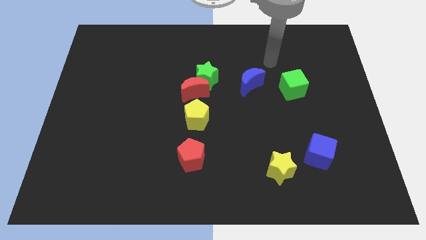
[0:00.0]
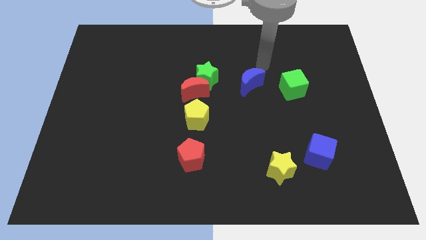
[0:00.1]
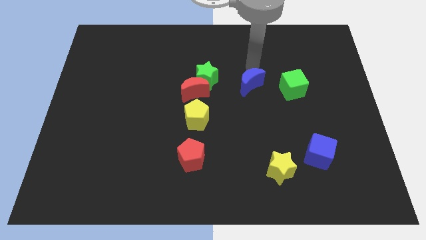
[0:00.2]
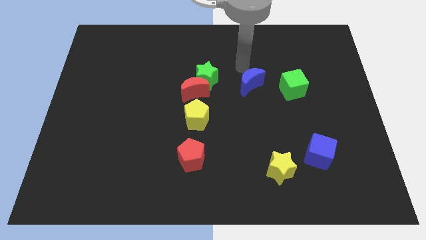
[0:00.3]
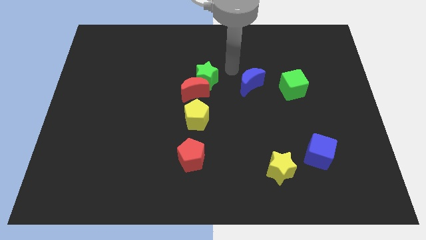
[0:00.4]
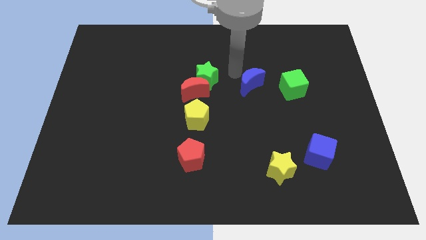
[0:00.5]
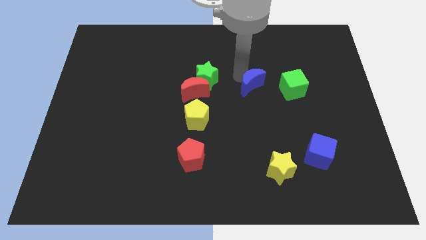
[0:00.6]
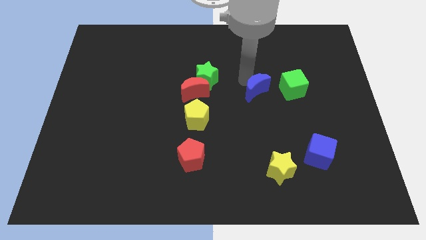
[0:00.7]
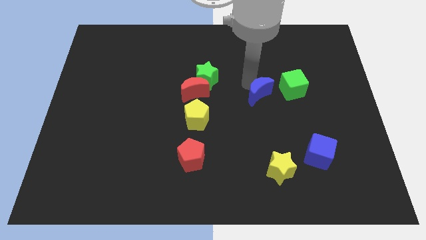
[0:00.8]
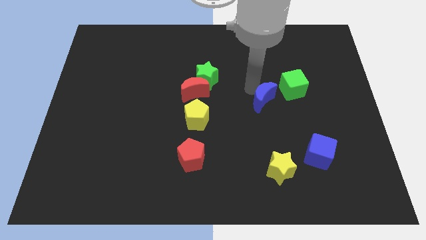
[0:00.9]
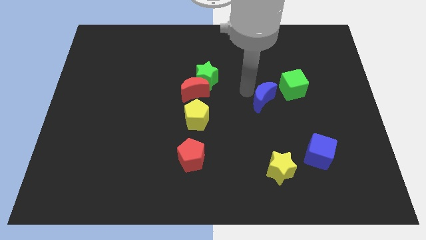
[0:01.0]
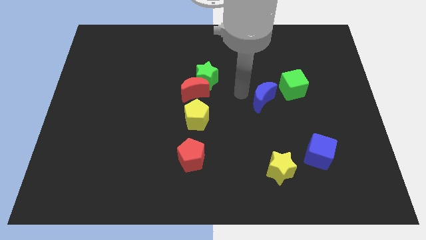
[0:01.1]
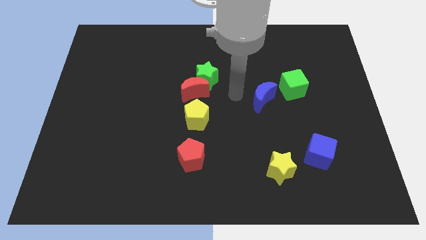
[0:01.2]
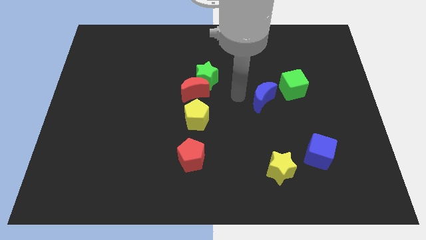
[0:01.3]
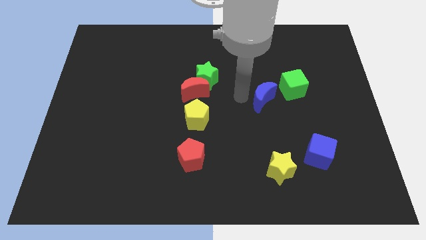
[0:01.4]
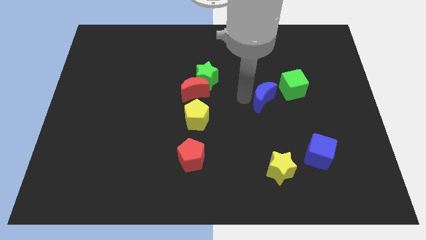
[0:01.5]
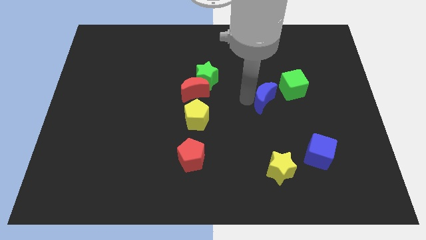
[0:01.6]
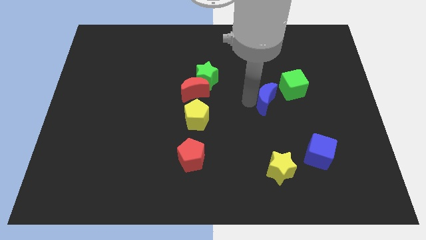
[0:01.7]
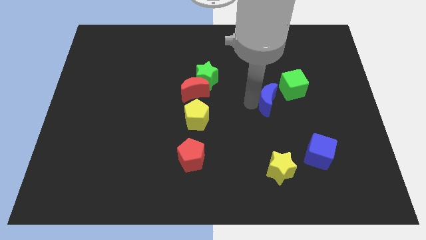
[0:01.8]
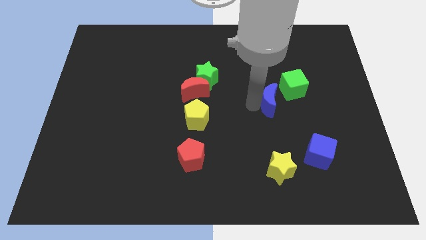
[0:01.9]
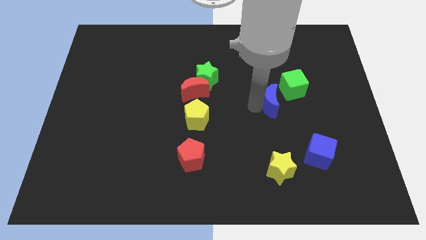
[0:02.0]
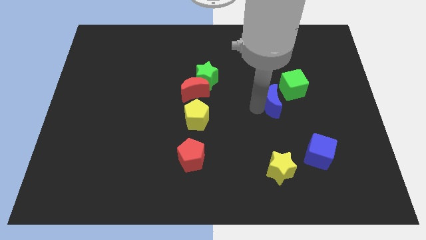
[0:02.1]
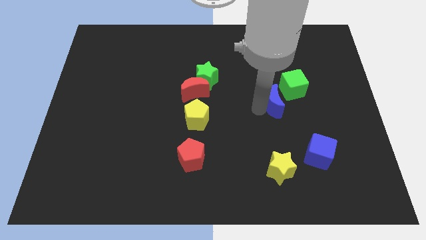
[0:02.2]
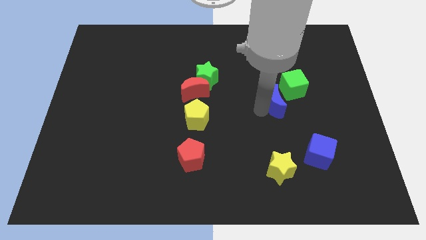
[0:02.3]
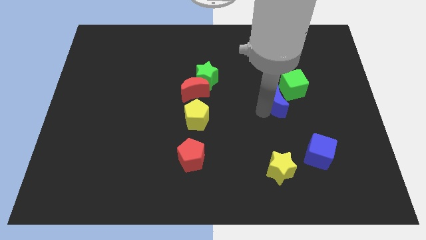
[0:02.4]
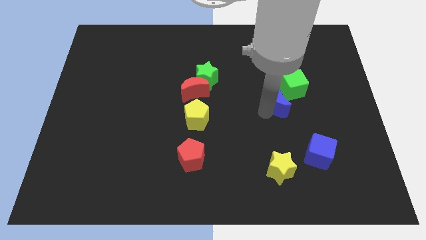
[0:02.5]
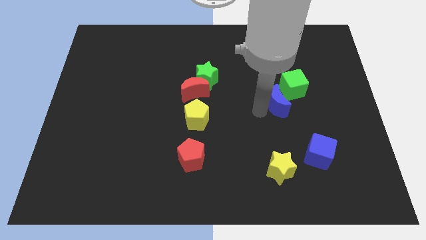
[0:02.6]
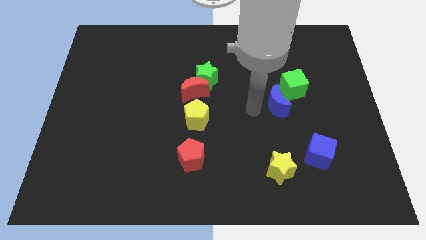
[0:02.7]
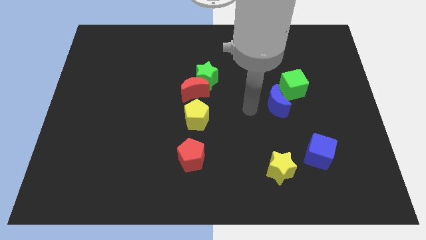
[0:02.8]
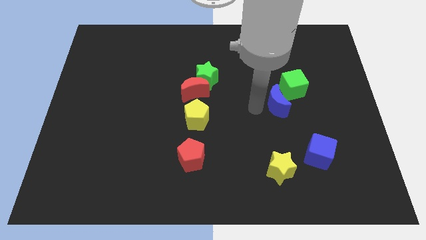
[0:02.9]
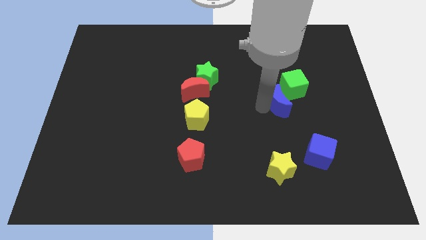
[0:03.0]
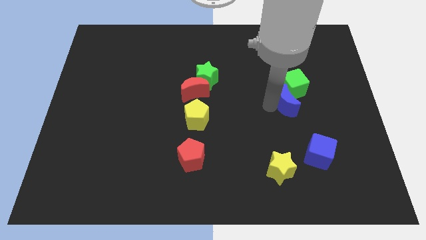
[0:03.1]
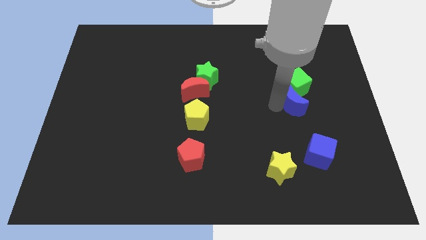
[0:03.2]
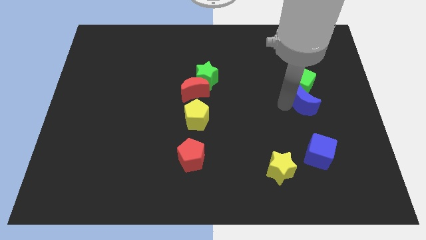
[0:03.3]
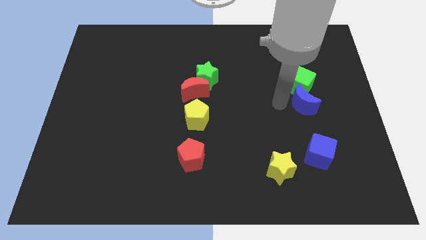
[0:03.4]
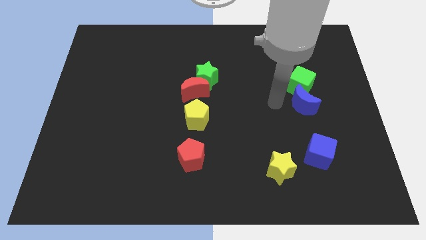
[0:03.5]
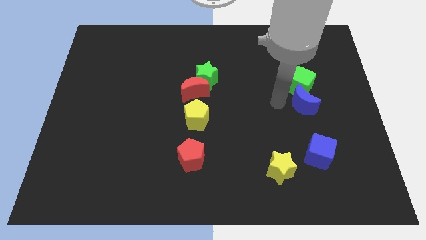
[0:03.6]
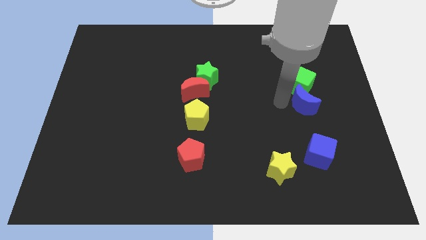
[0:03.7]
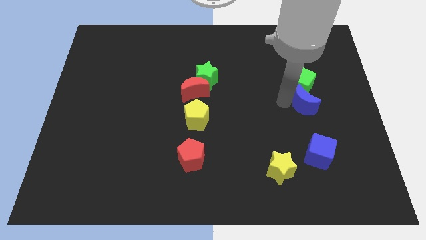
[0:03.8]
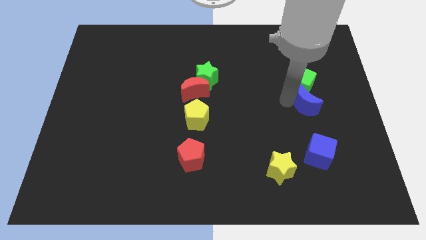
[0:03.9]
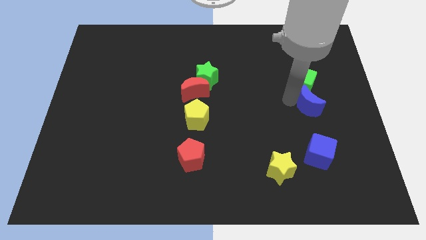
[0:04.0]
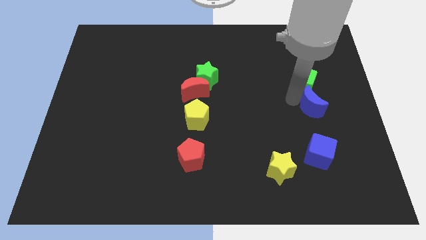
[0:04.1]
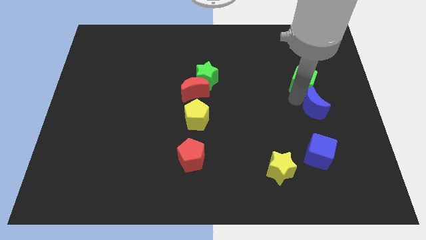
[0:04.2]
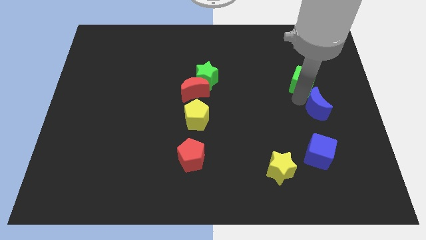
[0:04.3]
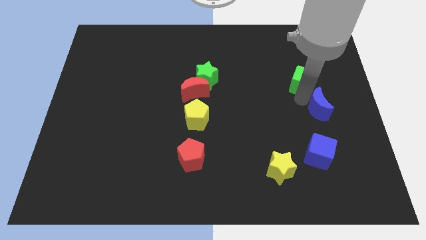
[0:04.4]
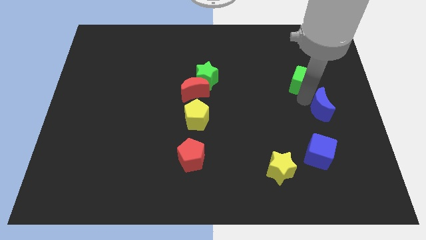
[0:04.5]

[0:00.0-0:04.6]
push the blue moon to the center right

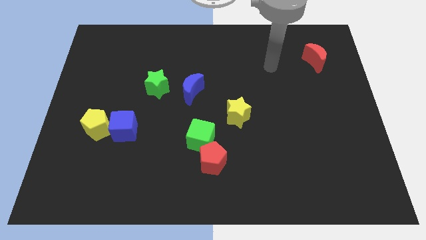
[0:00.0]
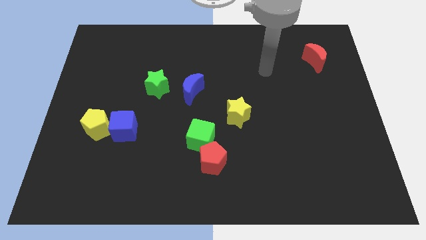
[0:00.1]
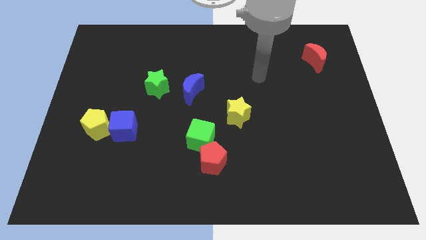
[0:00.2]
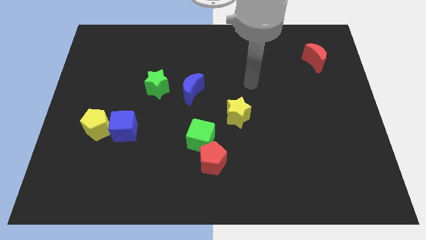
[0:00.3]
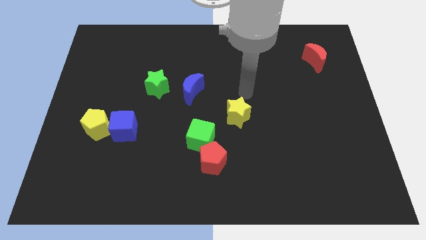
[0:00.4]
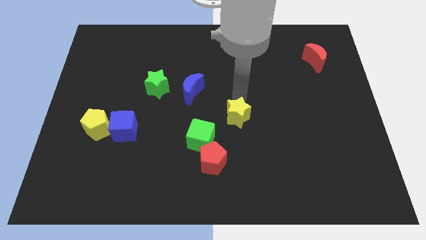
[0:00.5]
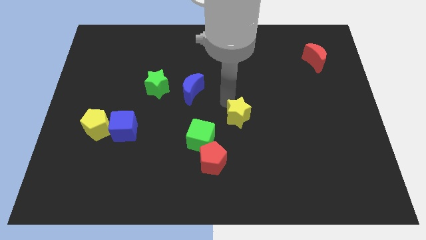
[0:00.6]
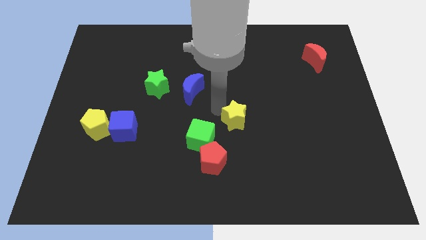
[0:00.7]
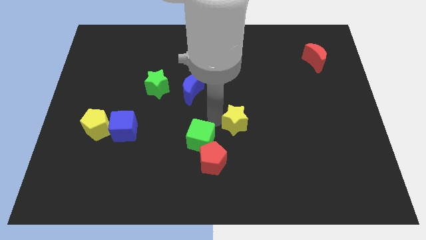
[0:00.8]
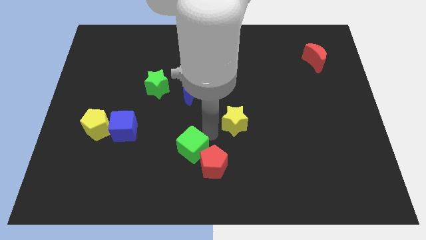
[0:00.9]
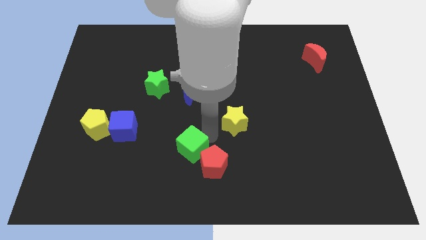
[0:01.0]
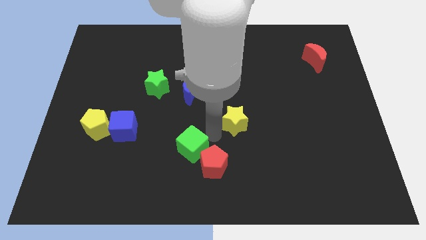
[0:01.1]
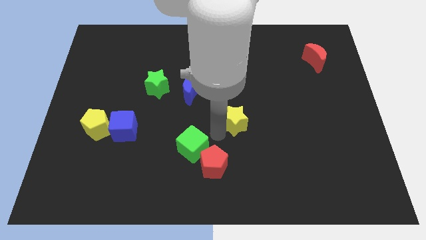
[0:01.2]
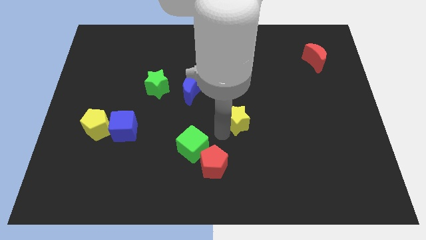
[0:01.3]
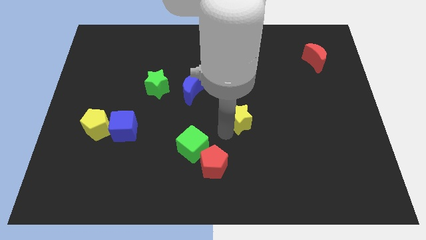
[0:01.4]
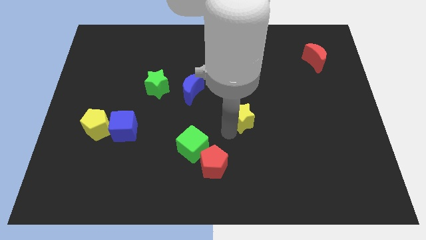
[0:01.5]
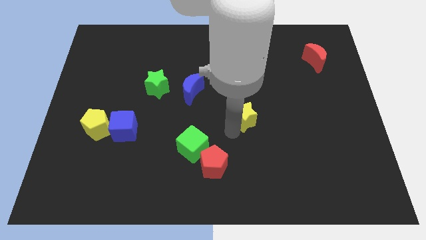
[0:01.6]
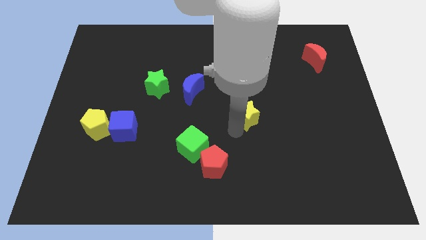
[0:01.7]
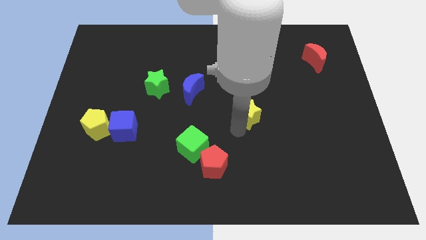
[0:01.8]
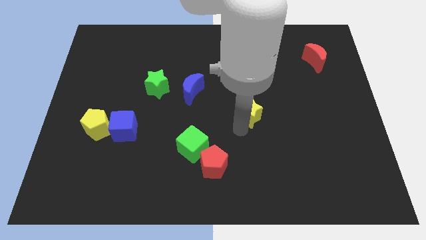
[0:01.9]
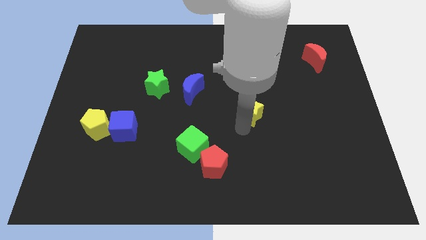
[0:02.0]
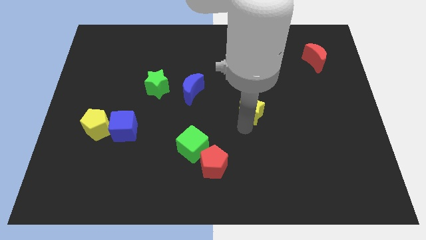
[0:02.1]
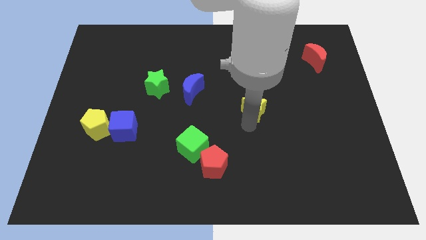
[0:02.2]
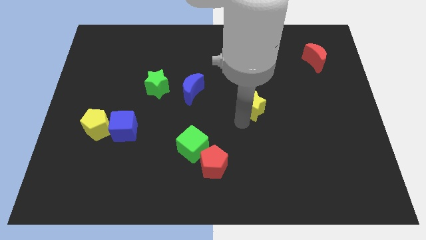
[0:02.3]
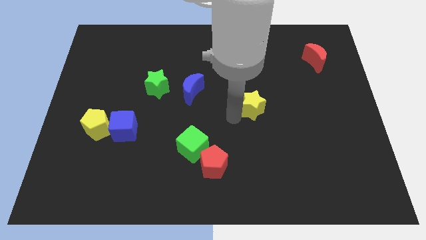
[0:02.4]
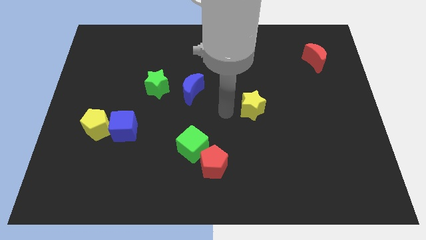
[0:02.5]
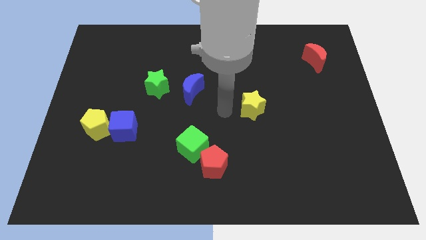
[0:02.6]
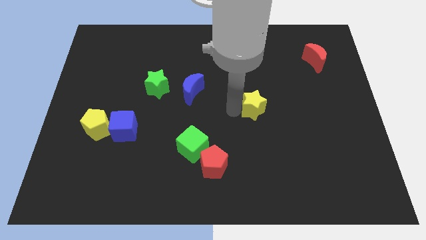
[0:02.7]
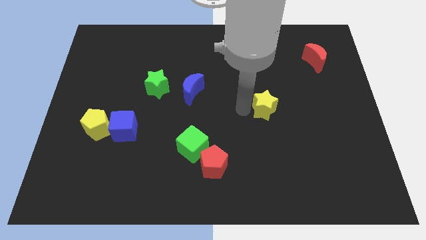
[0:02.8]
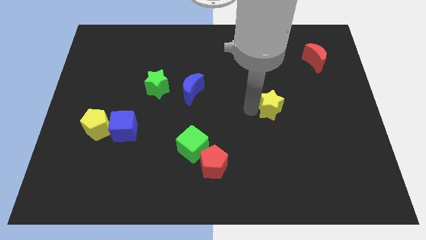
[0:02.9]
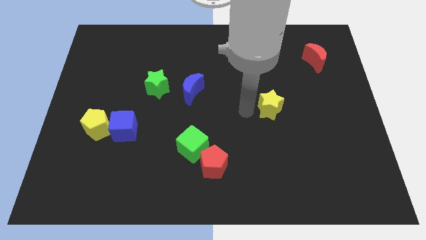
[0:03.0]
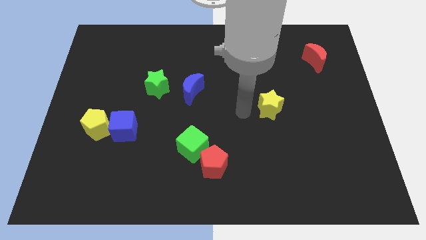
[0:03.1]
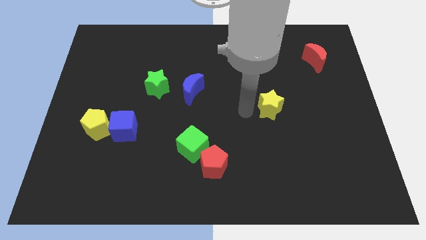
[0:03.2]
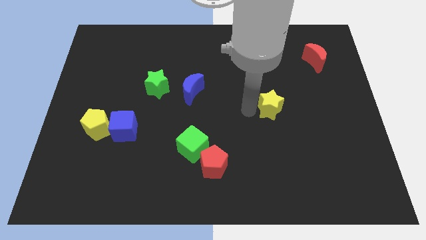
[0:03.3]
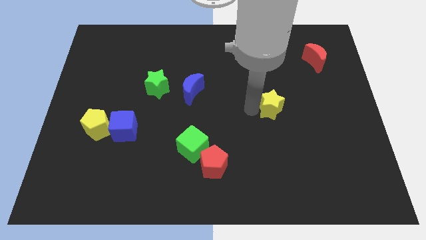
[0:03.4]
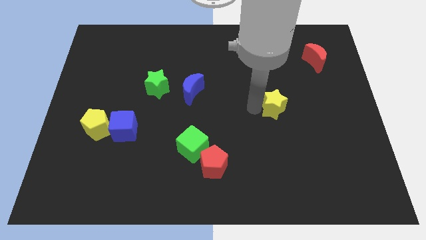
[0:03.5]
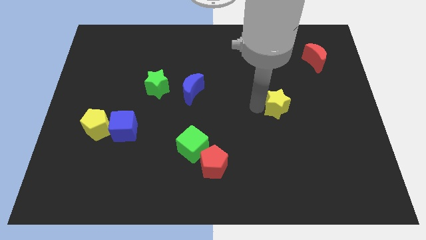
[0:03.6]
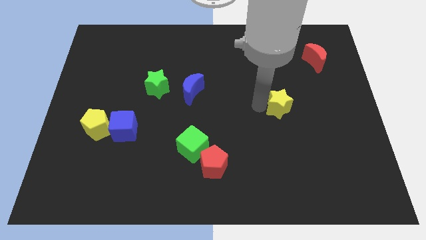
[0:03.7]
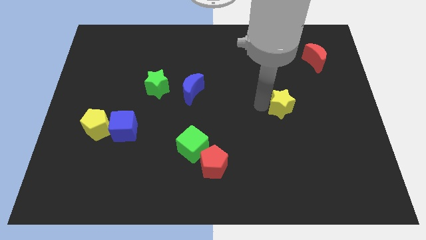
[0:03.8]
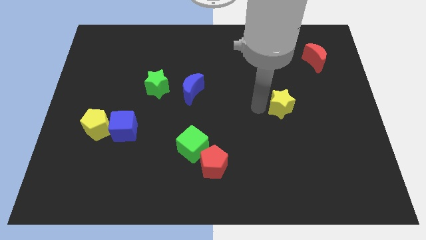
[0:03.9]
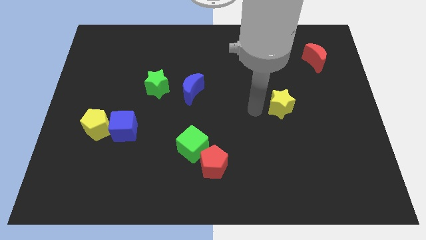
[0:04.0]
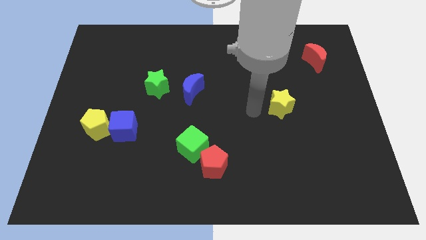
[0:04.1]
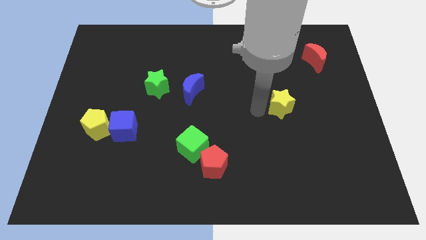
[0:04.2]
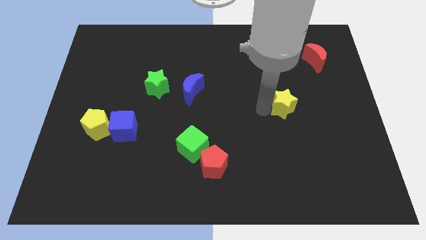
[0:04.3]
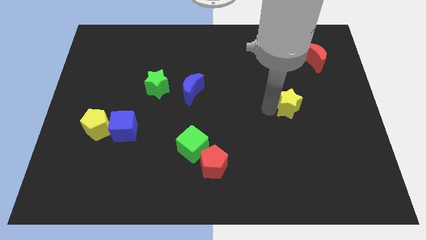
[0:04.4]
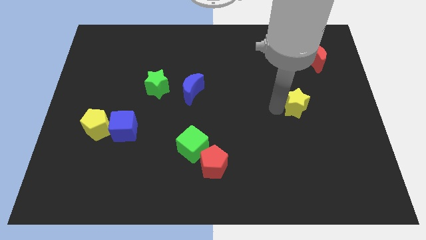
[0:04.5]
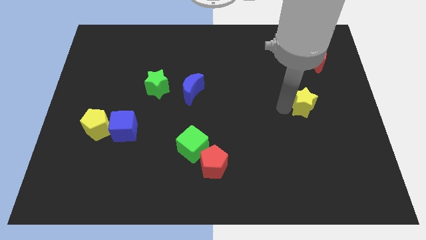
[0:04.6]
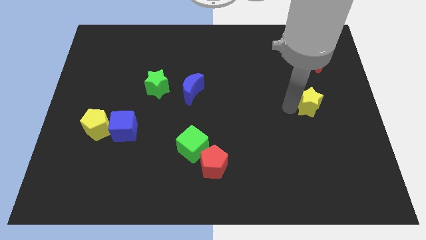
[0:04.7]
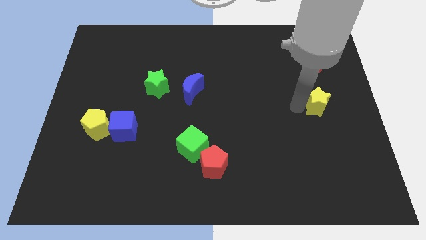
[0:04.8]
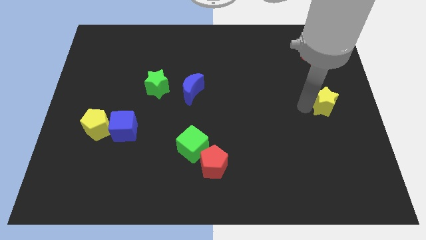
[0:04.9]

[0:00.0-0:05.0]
put the yellow star to the right side of the board
